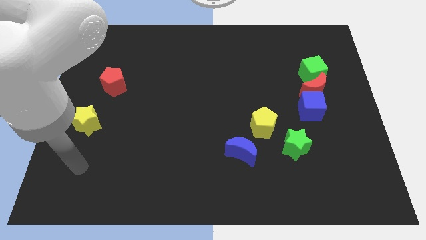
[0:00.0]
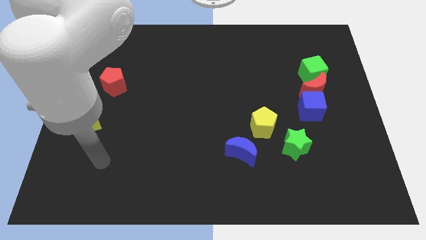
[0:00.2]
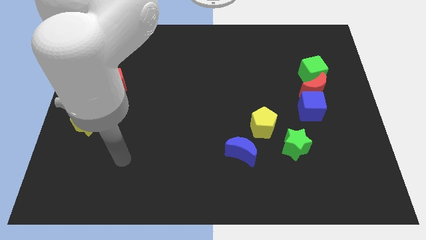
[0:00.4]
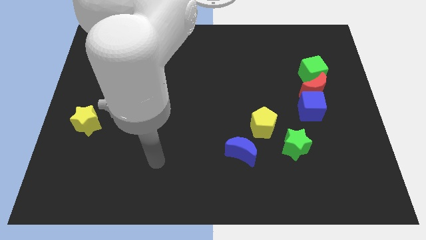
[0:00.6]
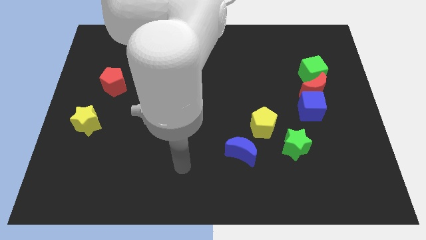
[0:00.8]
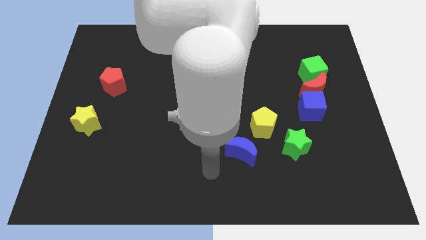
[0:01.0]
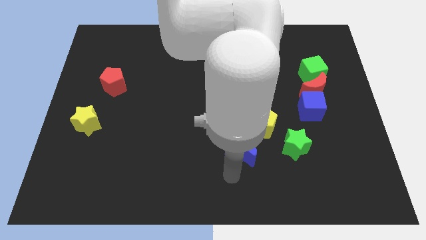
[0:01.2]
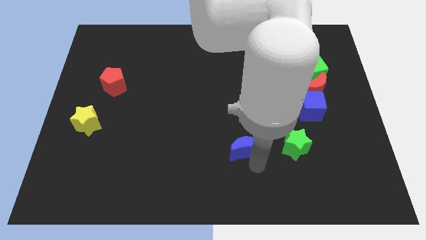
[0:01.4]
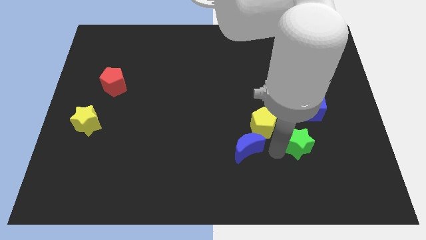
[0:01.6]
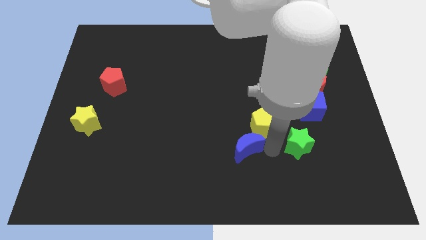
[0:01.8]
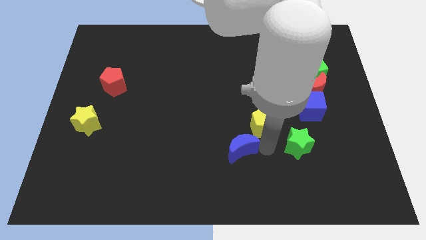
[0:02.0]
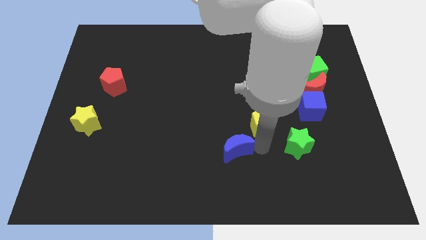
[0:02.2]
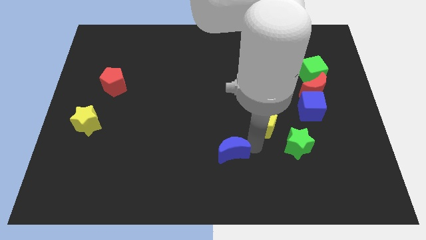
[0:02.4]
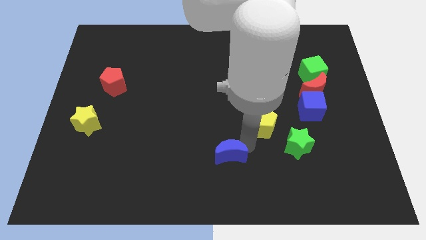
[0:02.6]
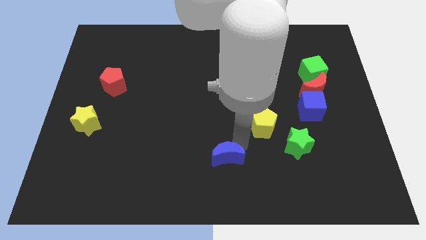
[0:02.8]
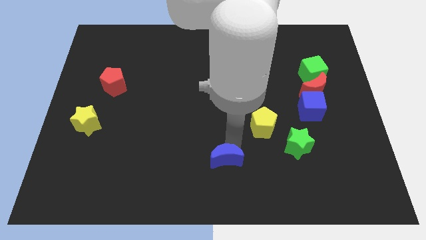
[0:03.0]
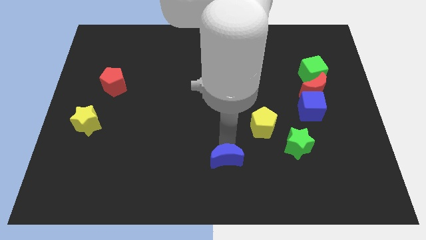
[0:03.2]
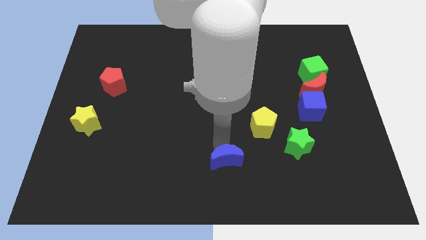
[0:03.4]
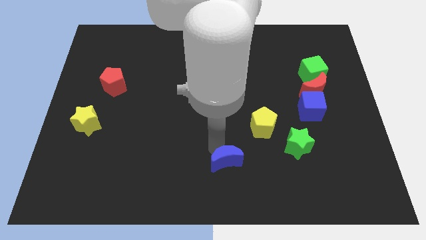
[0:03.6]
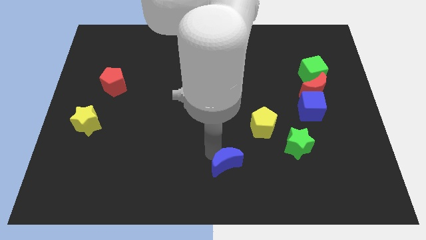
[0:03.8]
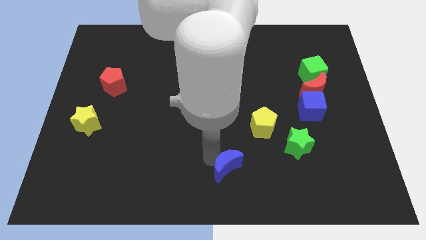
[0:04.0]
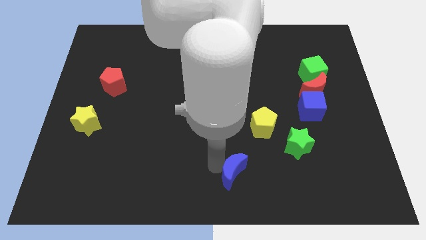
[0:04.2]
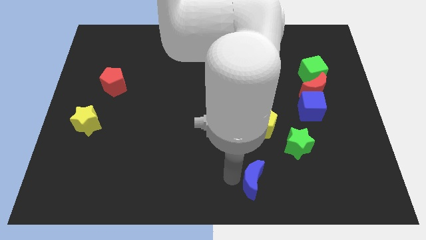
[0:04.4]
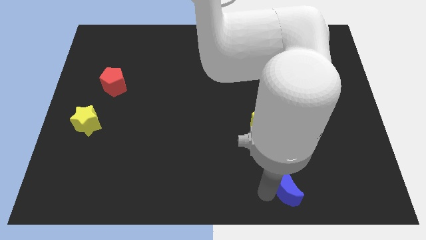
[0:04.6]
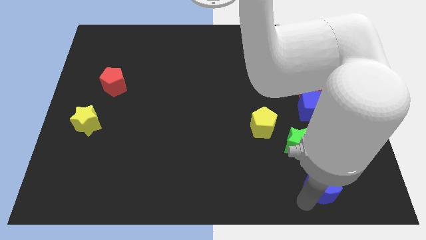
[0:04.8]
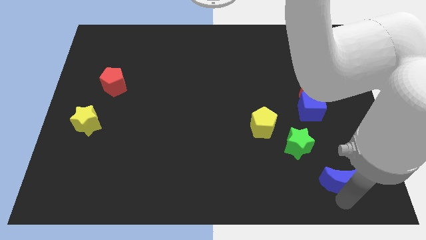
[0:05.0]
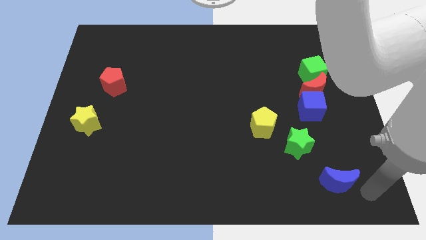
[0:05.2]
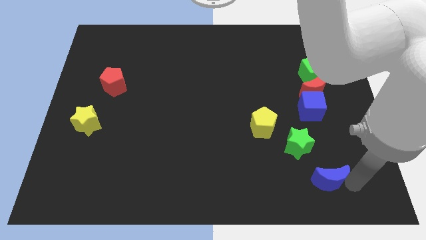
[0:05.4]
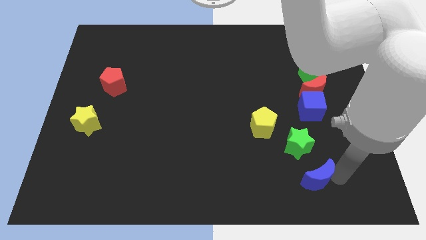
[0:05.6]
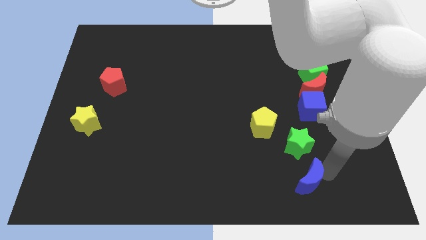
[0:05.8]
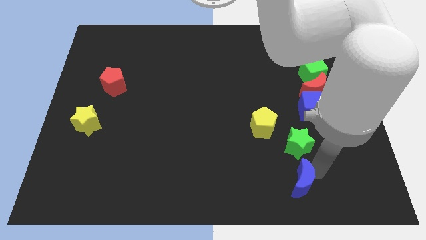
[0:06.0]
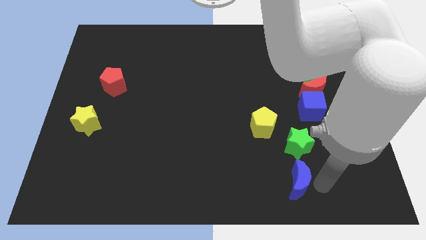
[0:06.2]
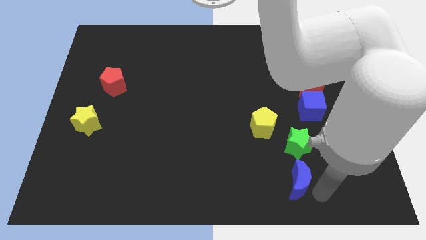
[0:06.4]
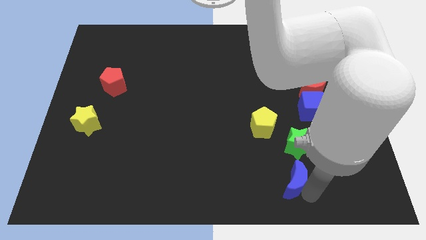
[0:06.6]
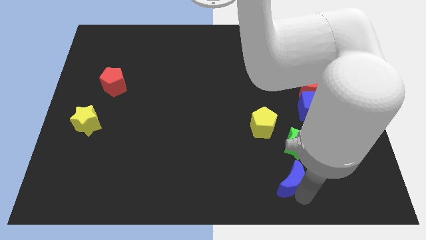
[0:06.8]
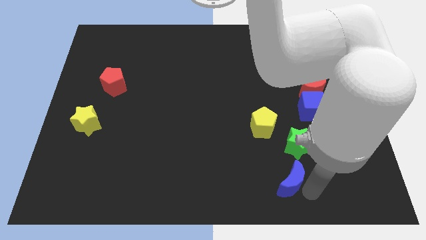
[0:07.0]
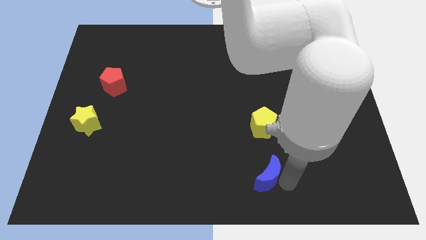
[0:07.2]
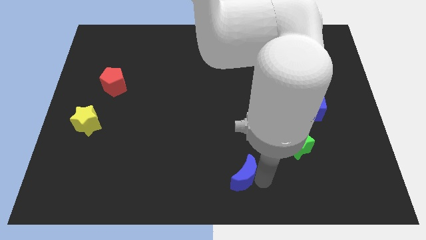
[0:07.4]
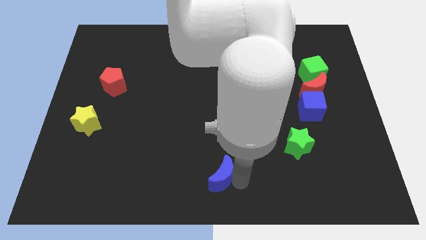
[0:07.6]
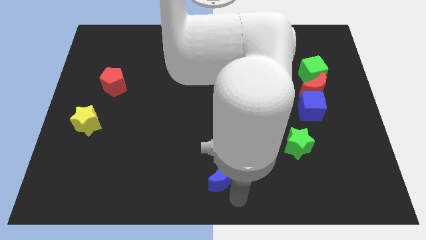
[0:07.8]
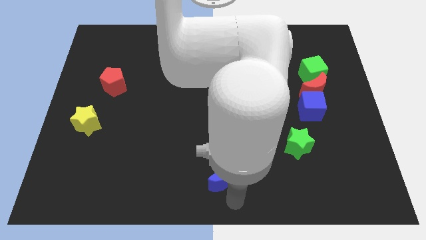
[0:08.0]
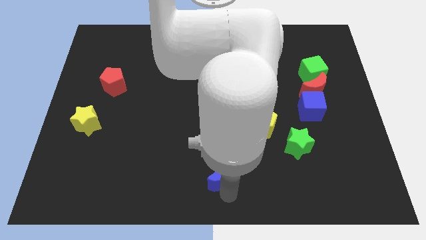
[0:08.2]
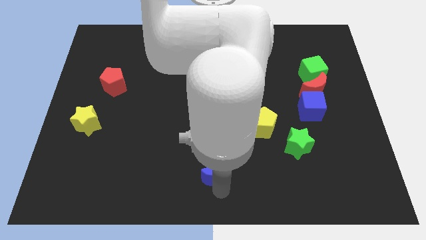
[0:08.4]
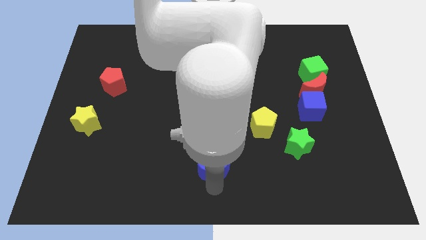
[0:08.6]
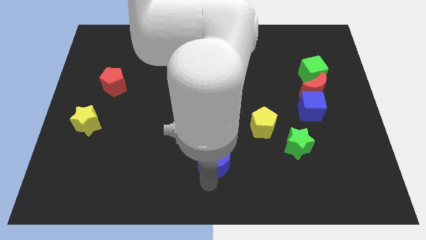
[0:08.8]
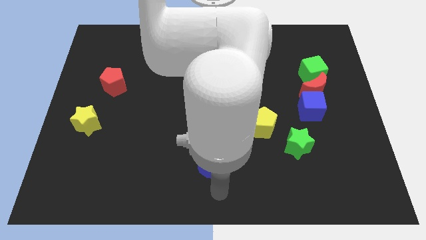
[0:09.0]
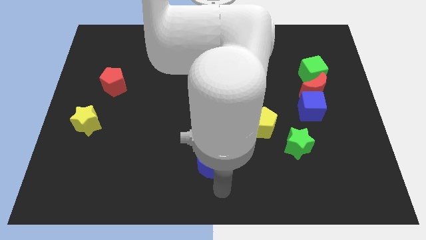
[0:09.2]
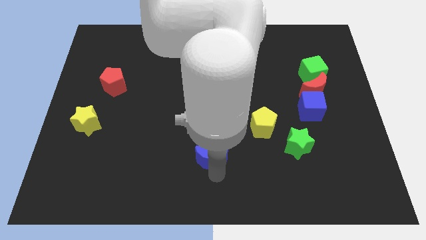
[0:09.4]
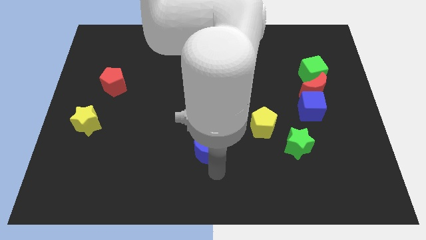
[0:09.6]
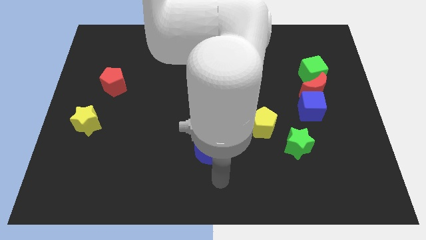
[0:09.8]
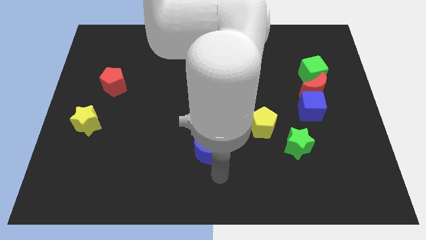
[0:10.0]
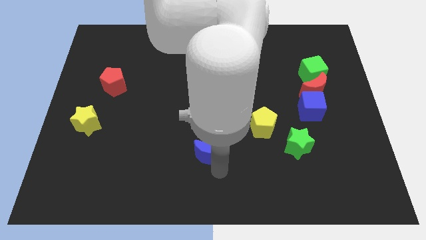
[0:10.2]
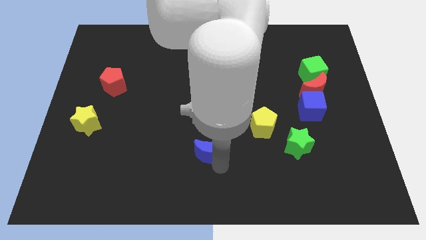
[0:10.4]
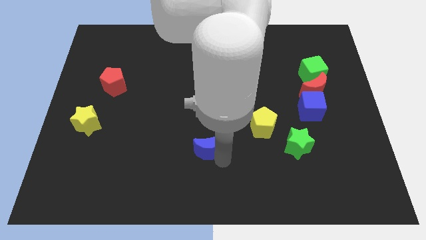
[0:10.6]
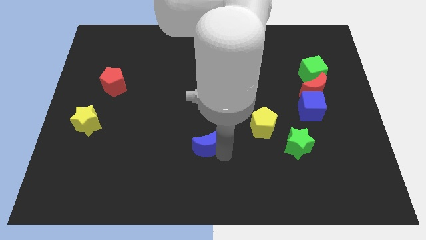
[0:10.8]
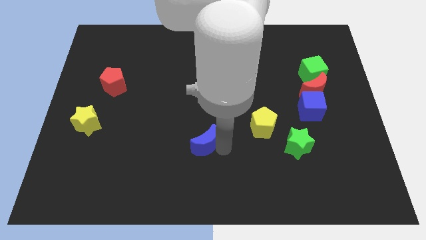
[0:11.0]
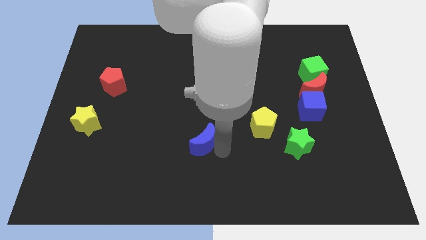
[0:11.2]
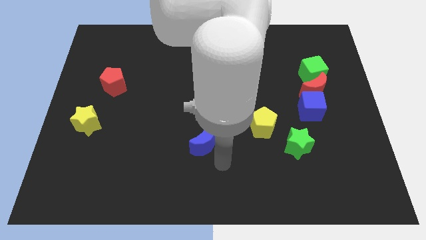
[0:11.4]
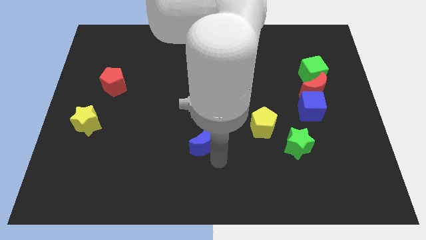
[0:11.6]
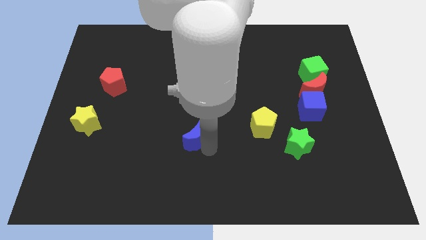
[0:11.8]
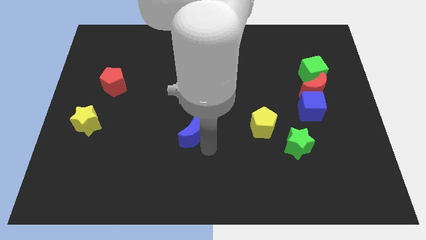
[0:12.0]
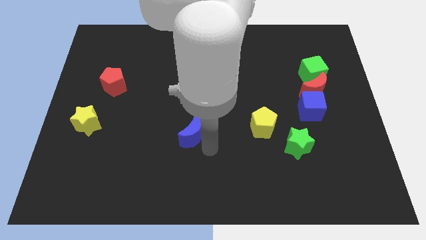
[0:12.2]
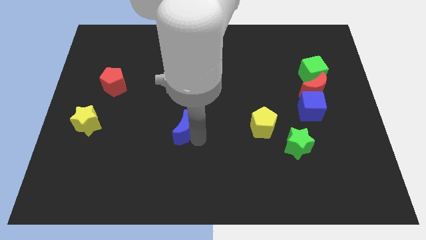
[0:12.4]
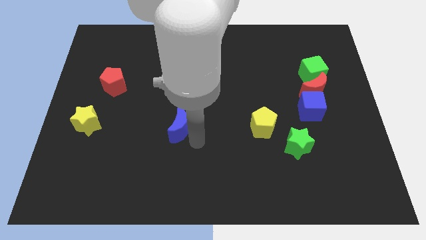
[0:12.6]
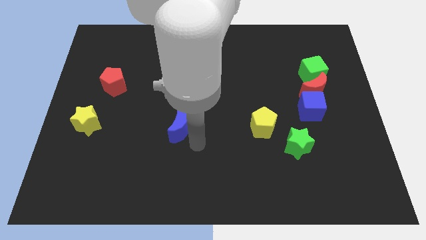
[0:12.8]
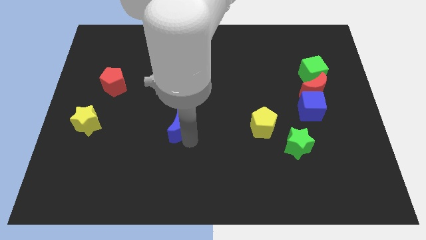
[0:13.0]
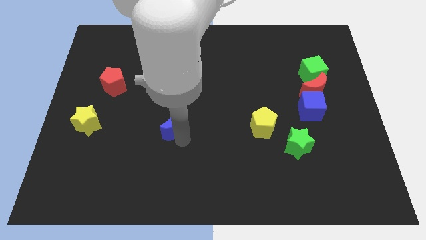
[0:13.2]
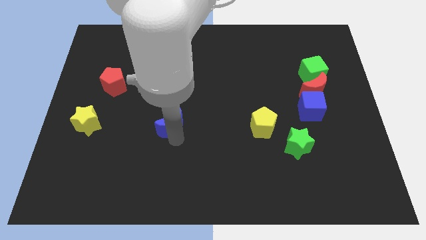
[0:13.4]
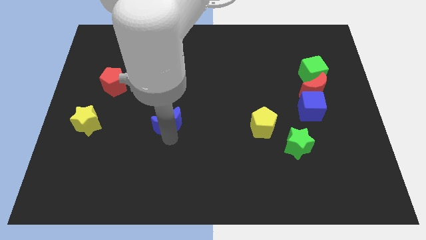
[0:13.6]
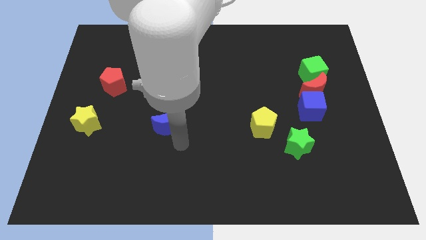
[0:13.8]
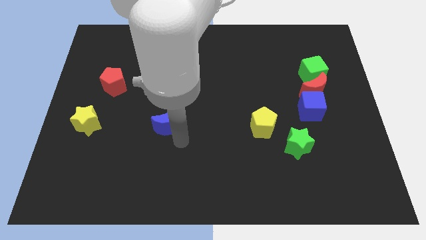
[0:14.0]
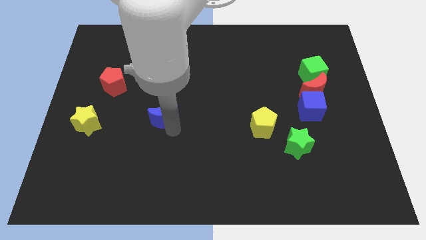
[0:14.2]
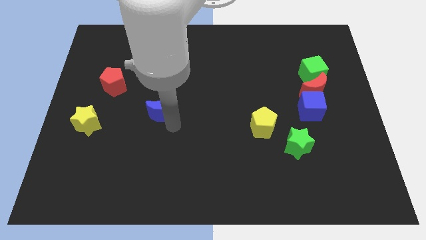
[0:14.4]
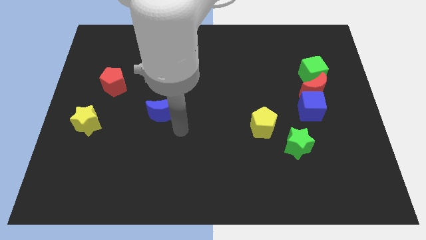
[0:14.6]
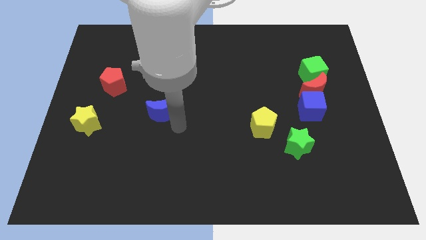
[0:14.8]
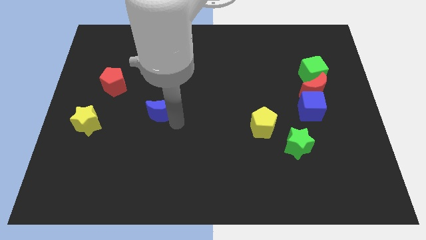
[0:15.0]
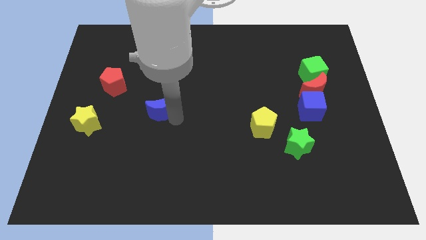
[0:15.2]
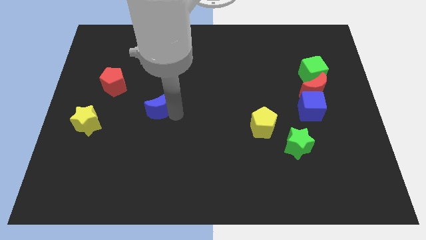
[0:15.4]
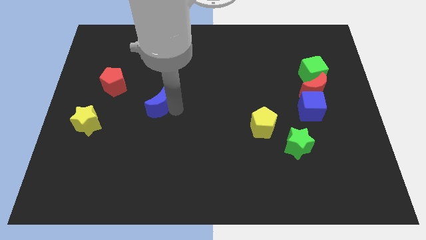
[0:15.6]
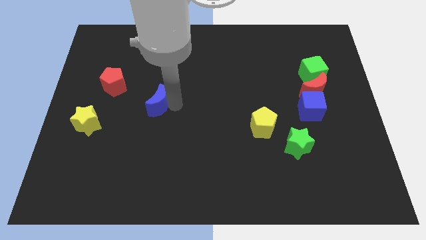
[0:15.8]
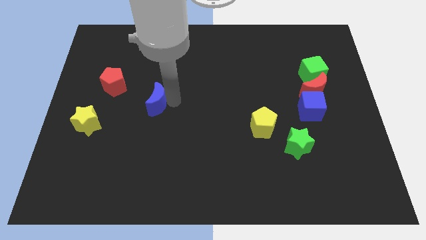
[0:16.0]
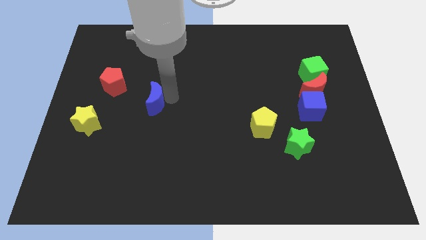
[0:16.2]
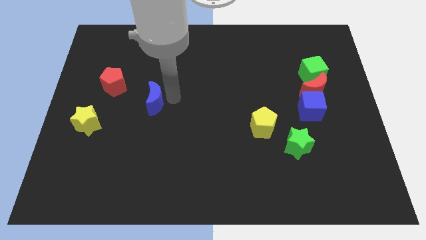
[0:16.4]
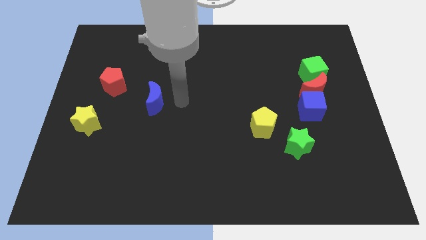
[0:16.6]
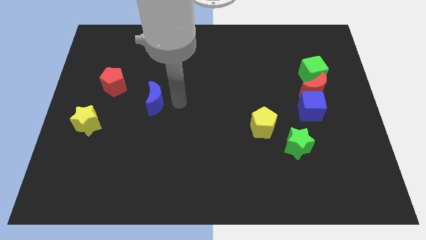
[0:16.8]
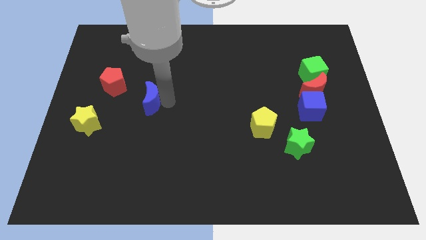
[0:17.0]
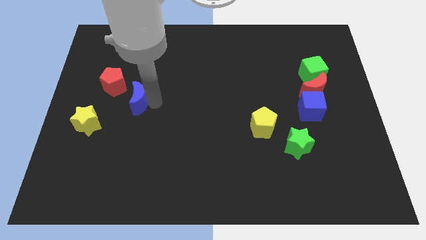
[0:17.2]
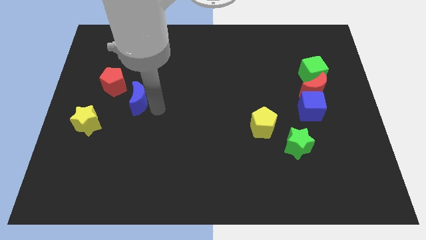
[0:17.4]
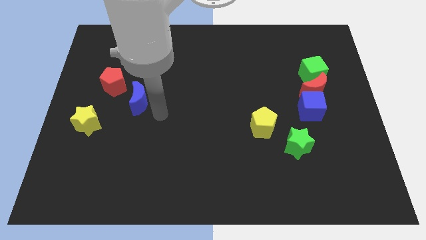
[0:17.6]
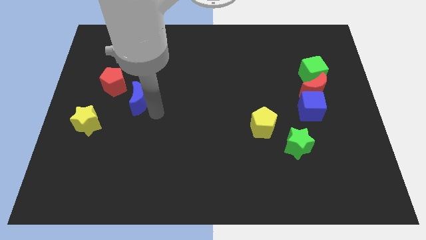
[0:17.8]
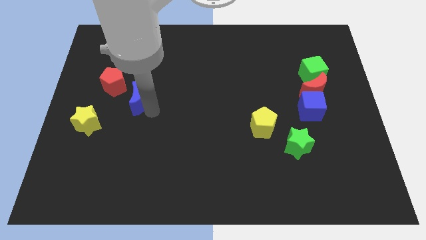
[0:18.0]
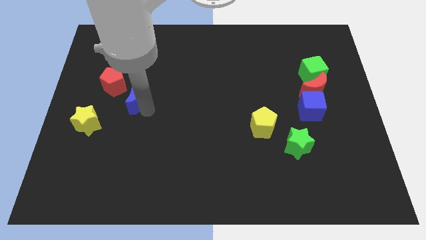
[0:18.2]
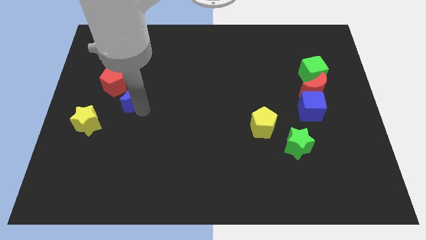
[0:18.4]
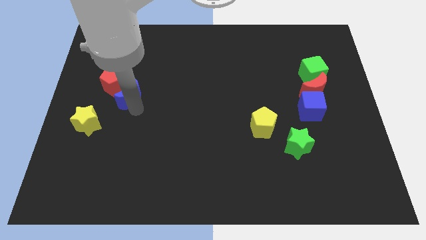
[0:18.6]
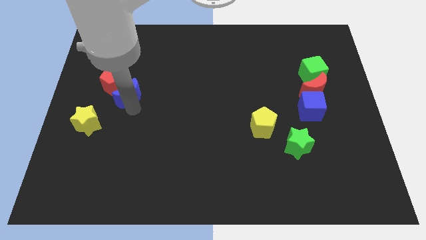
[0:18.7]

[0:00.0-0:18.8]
slide the blue moon to the red pentagon
